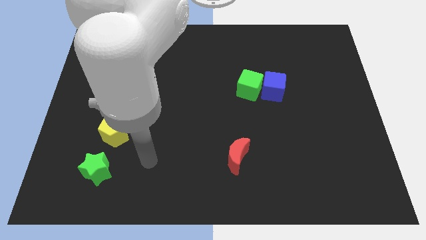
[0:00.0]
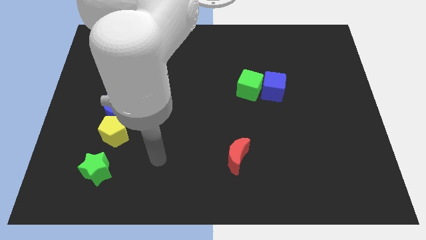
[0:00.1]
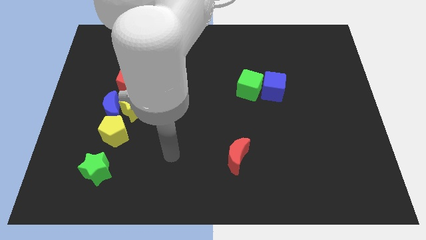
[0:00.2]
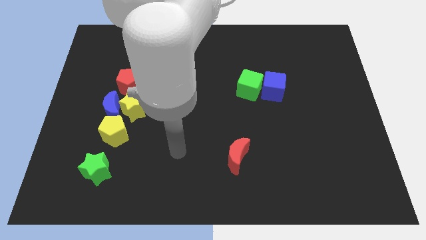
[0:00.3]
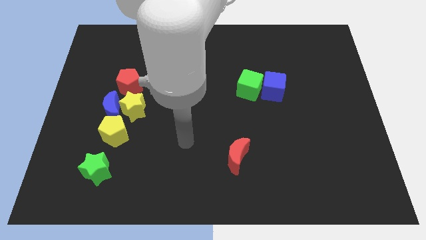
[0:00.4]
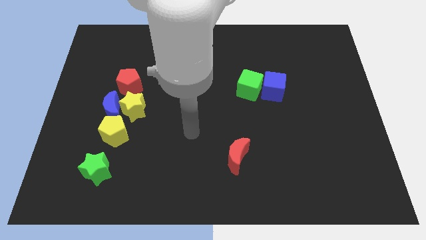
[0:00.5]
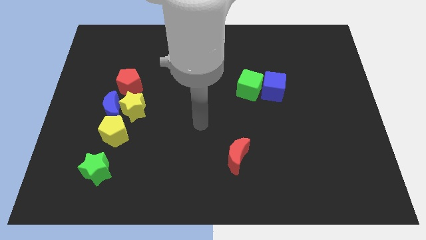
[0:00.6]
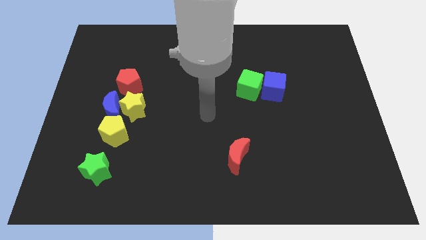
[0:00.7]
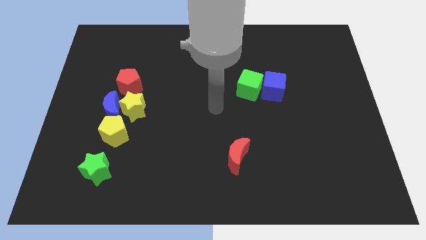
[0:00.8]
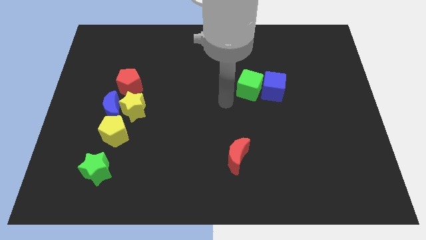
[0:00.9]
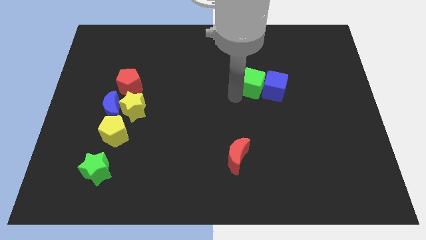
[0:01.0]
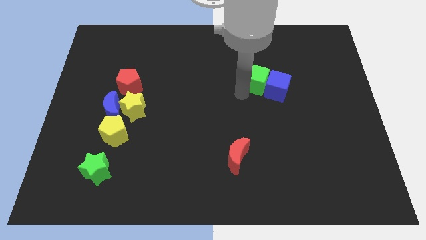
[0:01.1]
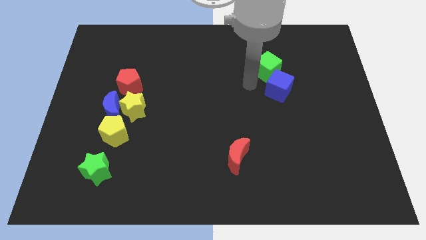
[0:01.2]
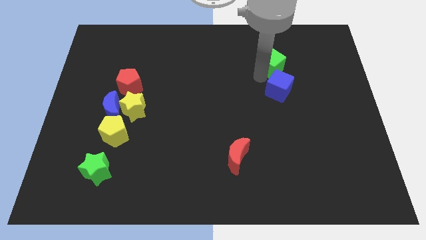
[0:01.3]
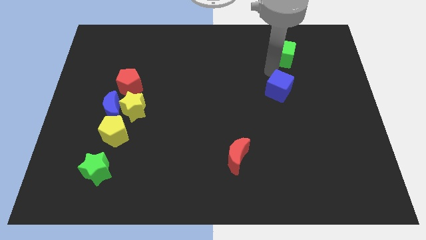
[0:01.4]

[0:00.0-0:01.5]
pull the blue cube apart from the green cube

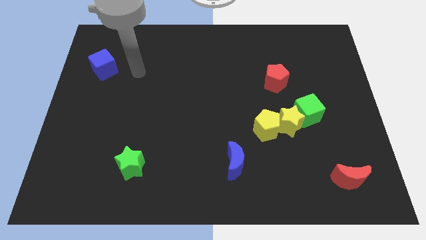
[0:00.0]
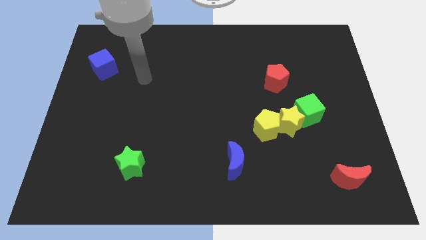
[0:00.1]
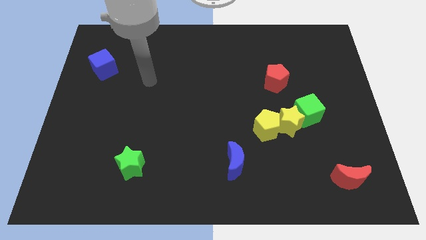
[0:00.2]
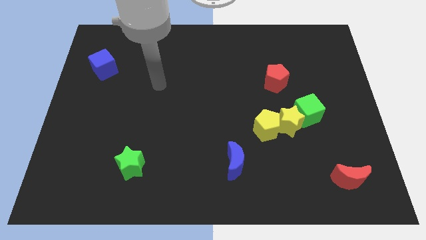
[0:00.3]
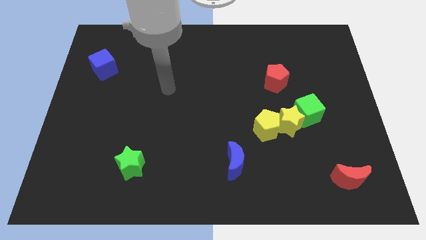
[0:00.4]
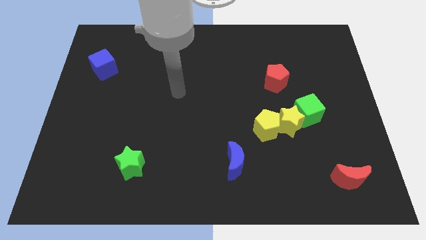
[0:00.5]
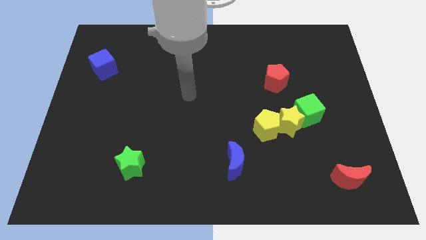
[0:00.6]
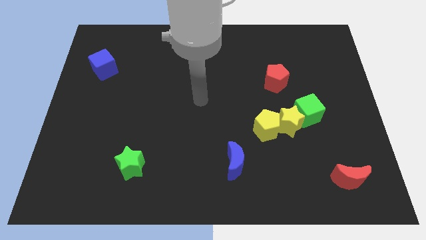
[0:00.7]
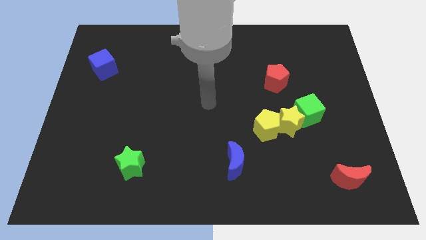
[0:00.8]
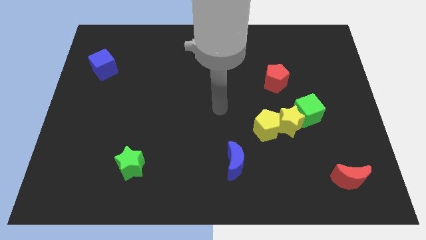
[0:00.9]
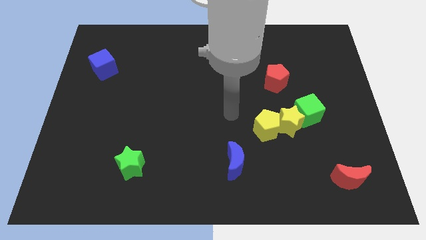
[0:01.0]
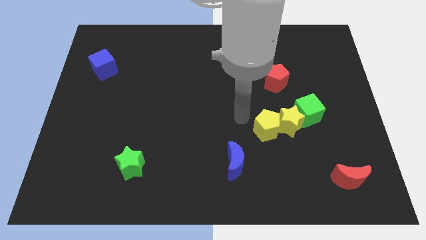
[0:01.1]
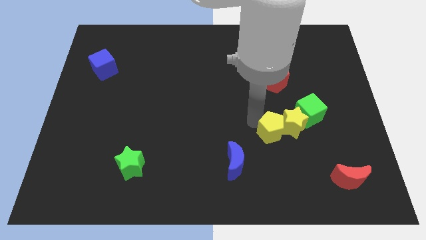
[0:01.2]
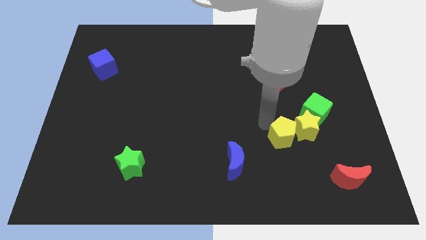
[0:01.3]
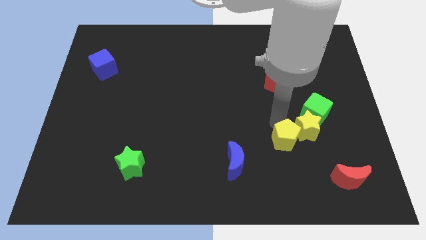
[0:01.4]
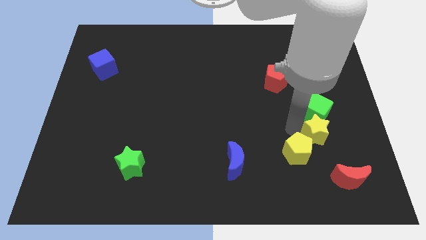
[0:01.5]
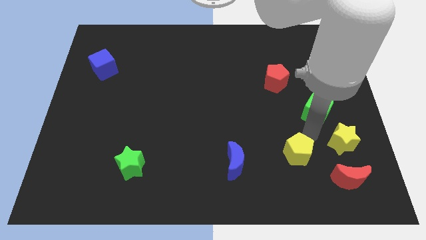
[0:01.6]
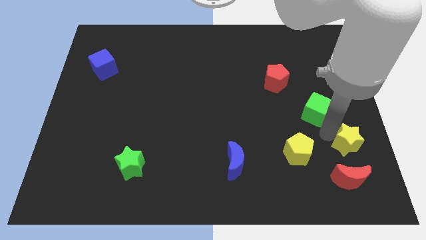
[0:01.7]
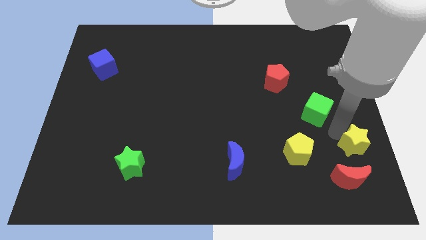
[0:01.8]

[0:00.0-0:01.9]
move the green cube away from the yellow star

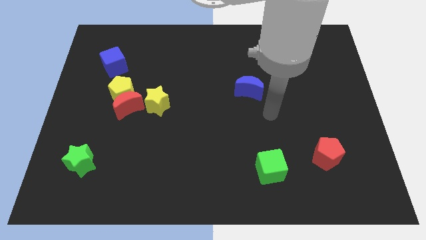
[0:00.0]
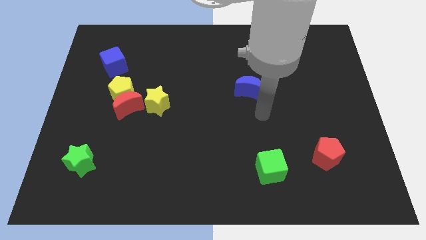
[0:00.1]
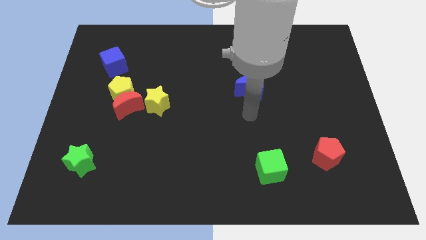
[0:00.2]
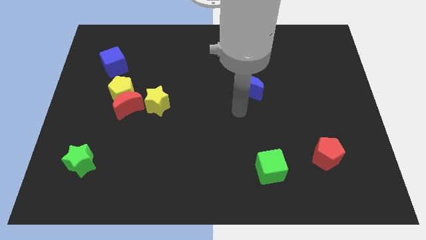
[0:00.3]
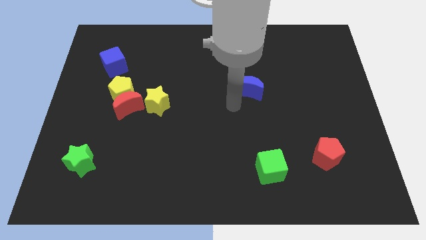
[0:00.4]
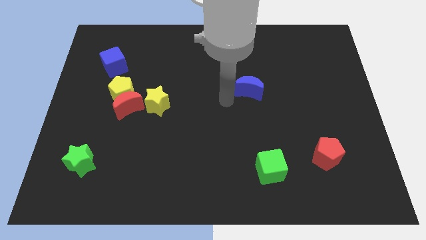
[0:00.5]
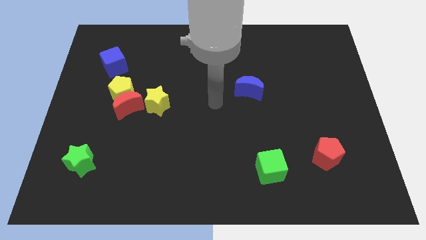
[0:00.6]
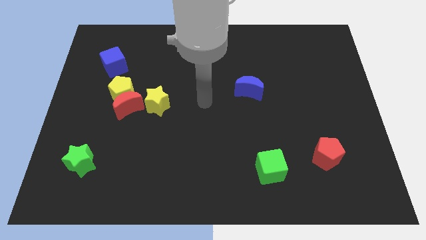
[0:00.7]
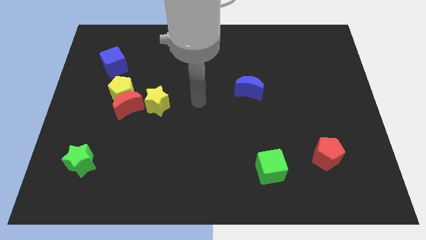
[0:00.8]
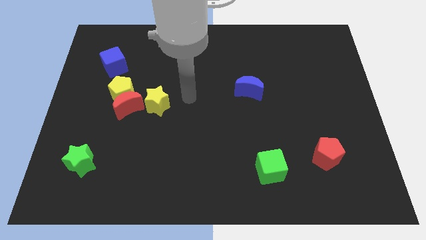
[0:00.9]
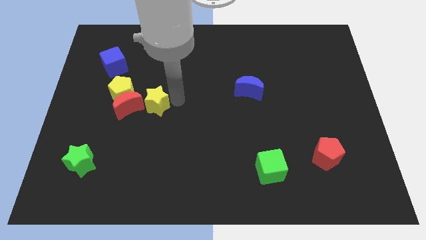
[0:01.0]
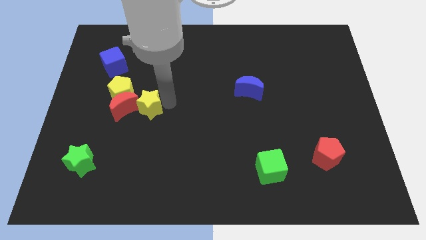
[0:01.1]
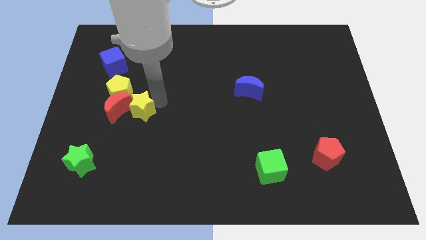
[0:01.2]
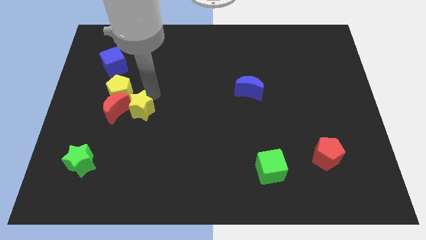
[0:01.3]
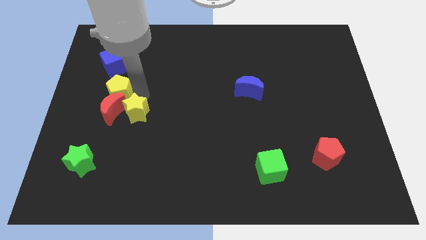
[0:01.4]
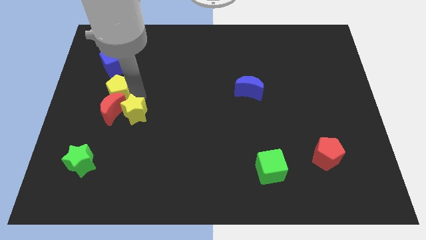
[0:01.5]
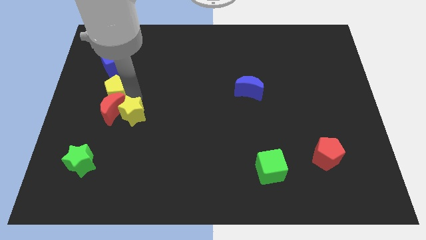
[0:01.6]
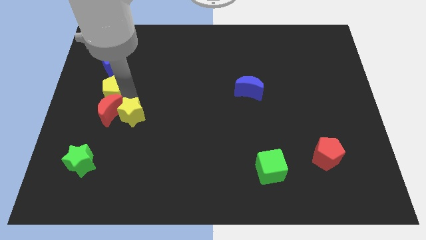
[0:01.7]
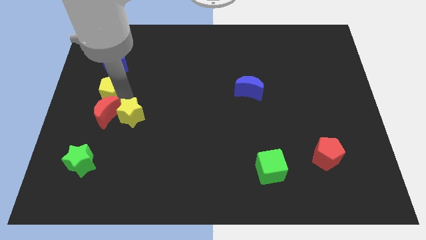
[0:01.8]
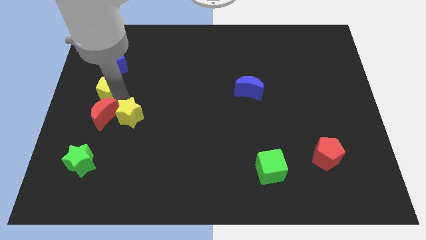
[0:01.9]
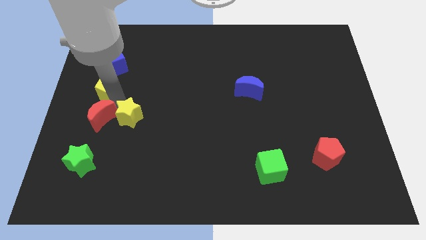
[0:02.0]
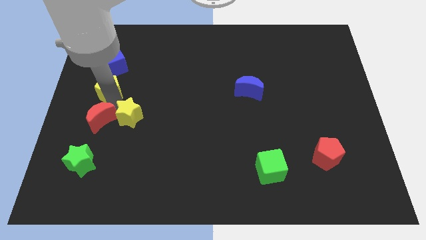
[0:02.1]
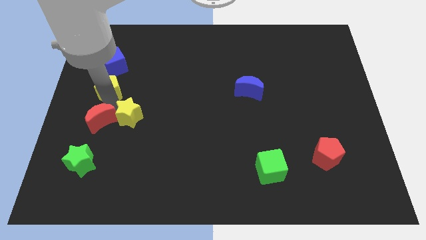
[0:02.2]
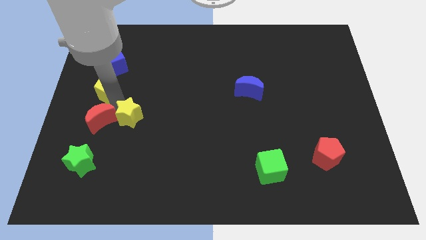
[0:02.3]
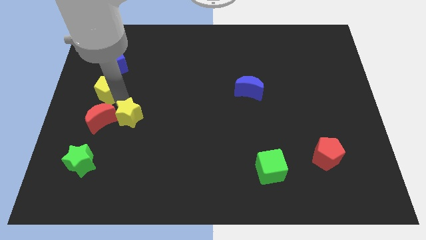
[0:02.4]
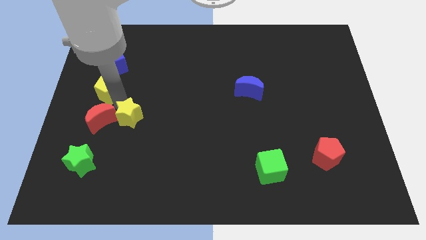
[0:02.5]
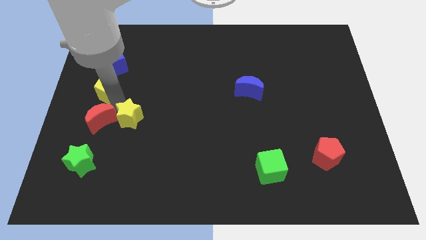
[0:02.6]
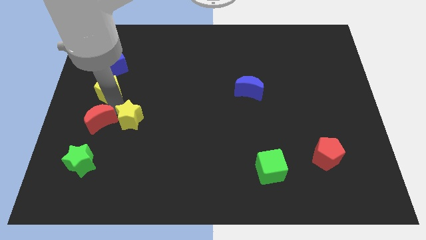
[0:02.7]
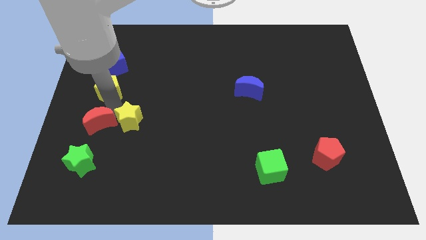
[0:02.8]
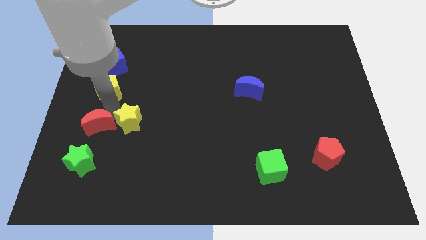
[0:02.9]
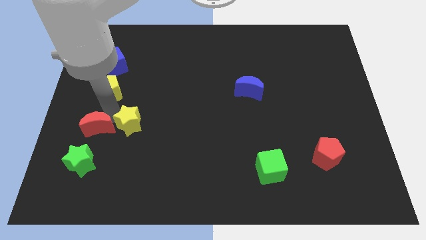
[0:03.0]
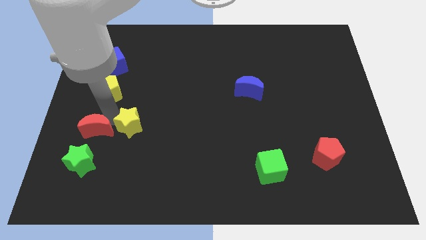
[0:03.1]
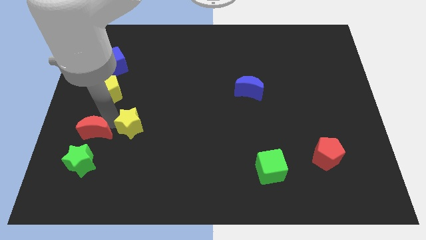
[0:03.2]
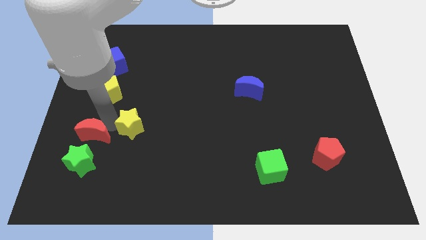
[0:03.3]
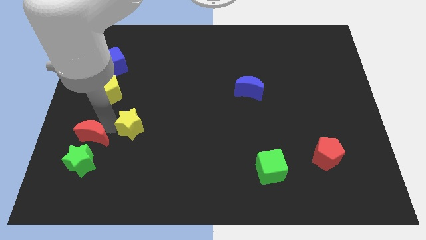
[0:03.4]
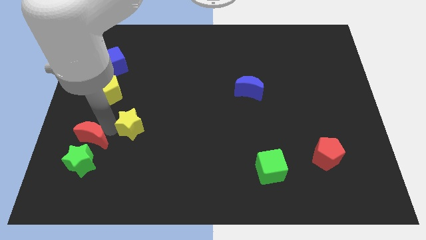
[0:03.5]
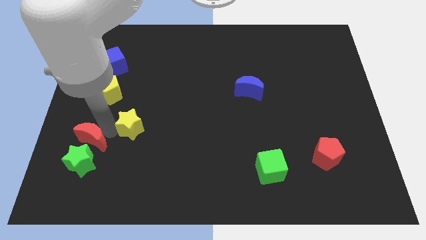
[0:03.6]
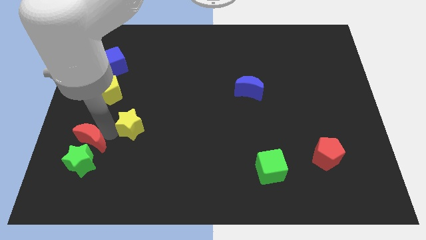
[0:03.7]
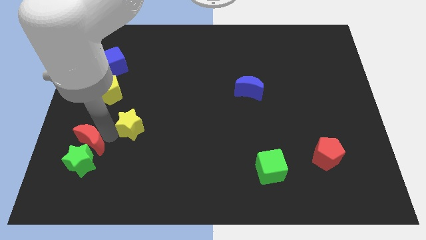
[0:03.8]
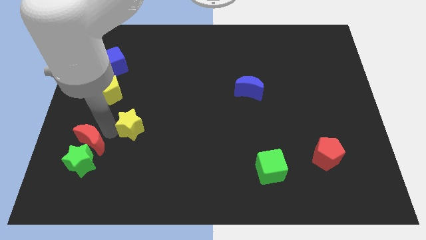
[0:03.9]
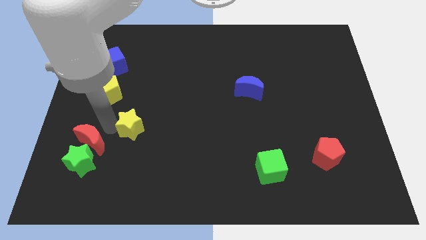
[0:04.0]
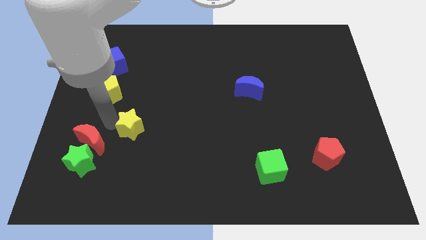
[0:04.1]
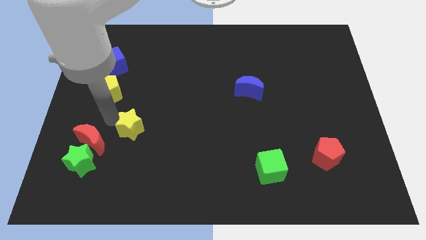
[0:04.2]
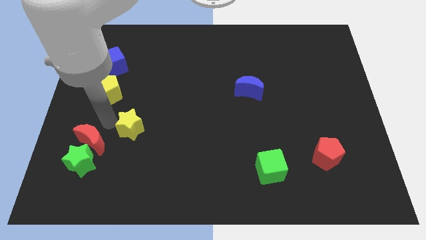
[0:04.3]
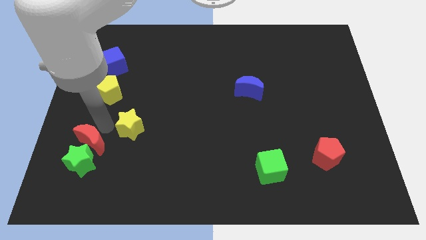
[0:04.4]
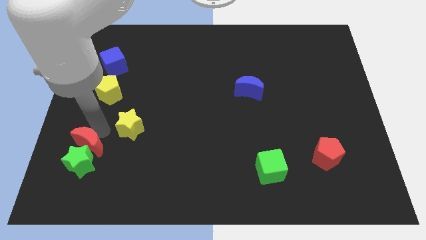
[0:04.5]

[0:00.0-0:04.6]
pull the red moon apart from the yellow pentagon and yellow star

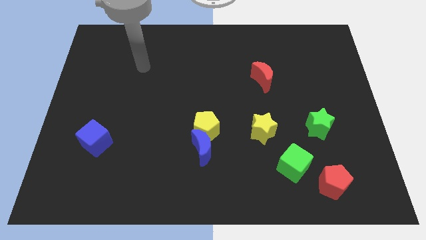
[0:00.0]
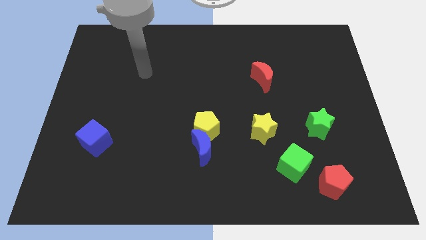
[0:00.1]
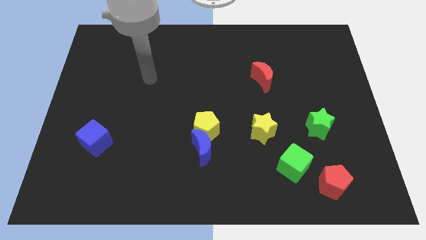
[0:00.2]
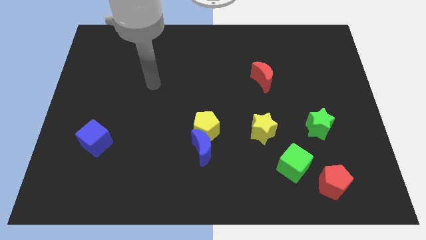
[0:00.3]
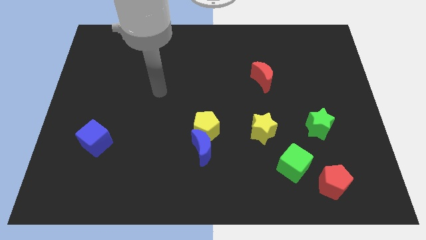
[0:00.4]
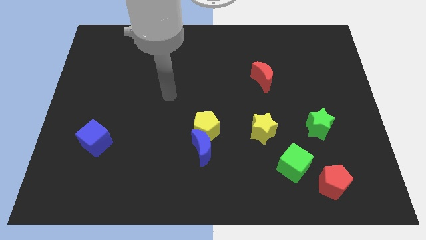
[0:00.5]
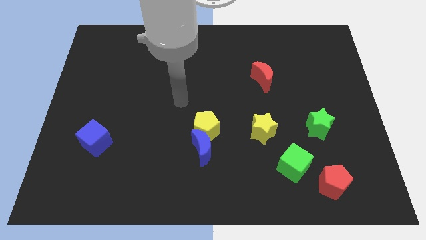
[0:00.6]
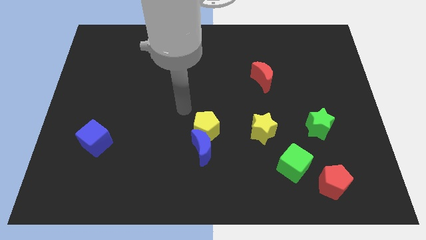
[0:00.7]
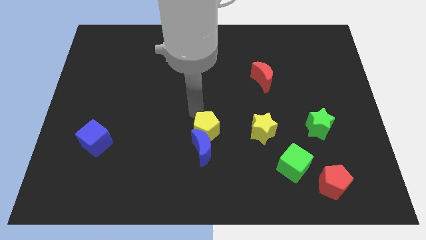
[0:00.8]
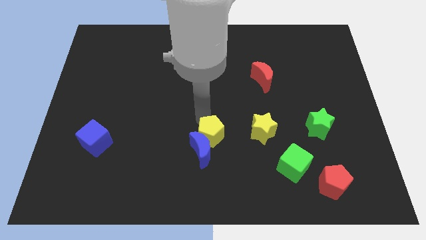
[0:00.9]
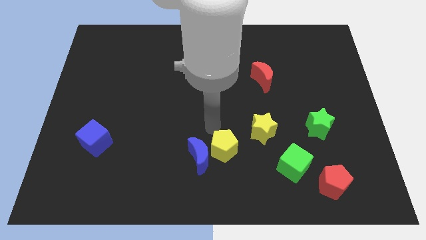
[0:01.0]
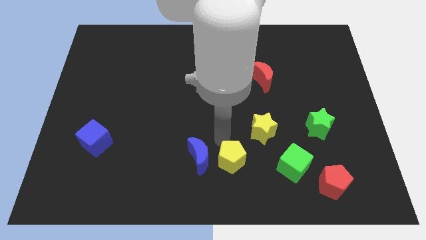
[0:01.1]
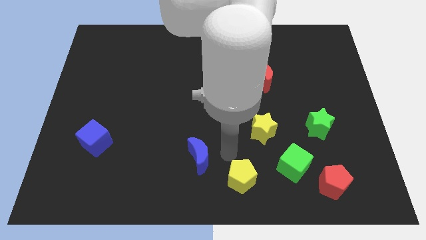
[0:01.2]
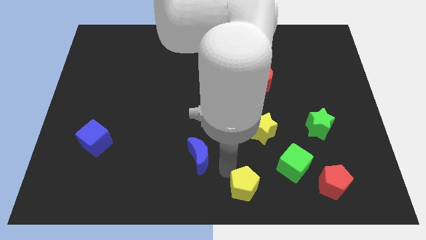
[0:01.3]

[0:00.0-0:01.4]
separate the blue moon from the yellow pentagon

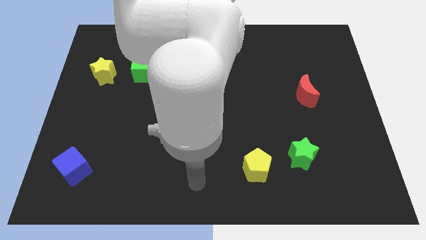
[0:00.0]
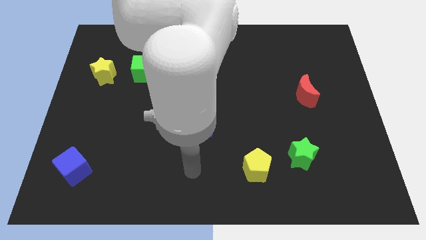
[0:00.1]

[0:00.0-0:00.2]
separate the green cube from the yellow star
